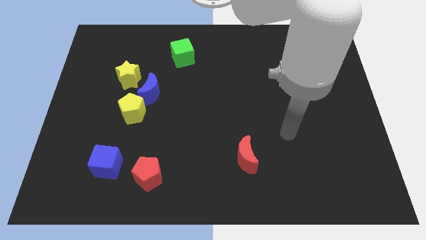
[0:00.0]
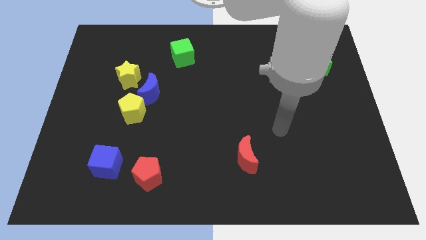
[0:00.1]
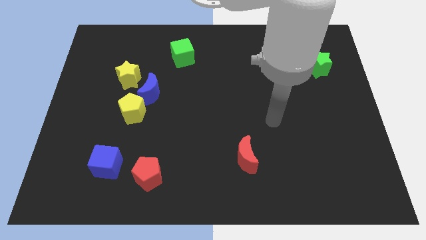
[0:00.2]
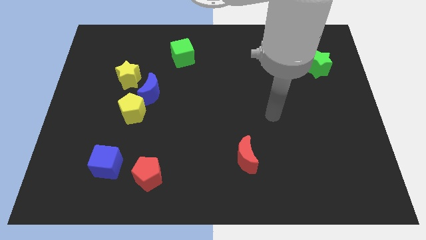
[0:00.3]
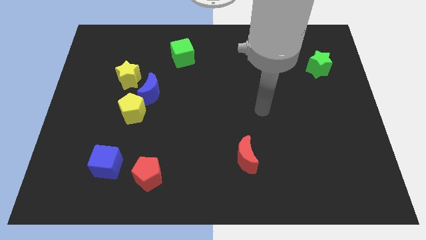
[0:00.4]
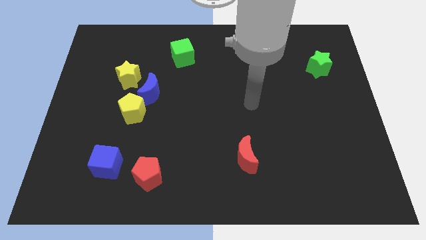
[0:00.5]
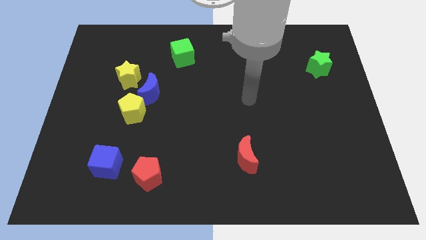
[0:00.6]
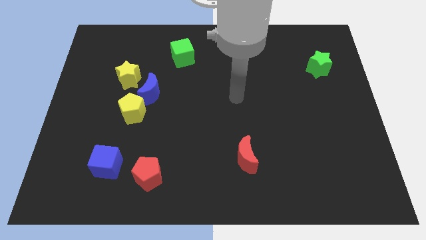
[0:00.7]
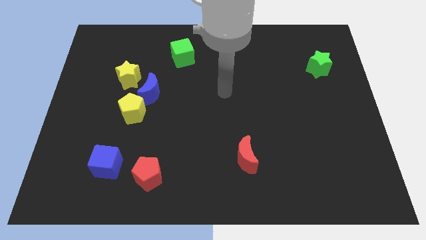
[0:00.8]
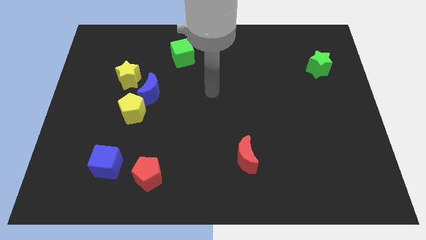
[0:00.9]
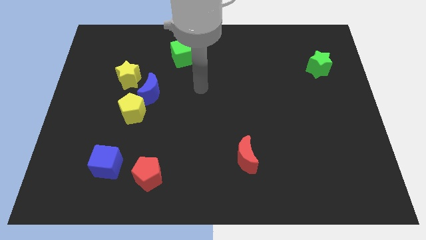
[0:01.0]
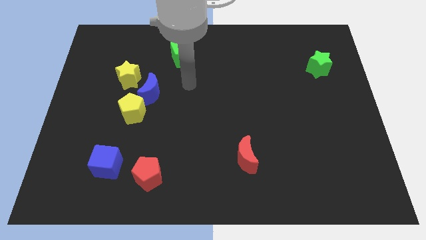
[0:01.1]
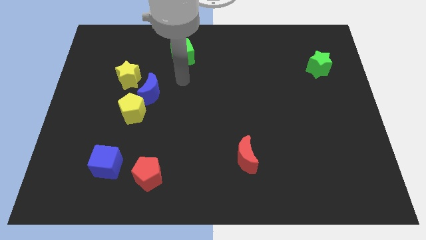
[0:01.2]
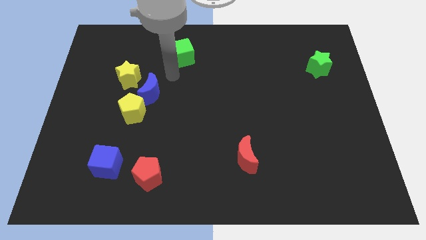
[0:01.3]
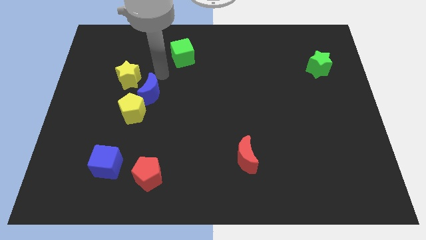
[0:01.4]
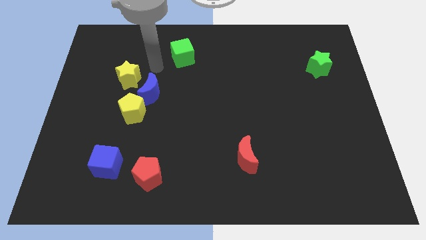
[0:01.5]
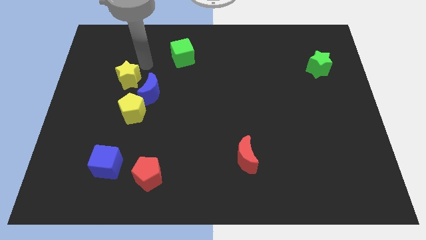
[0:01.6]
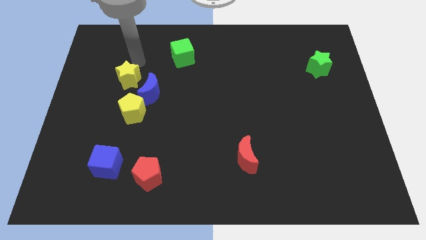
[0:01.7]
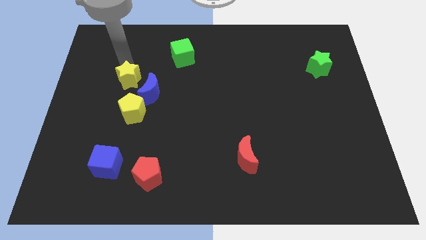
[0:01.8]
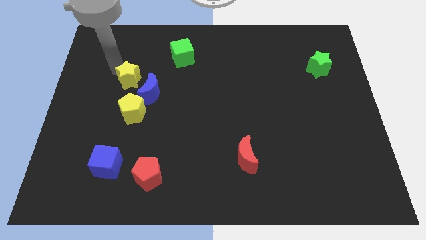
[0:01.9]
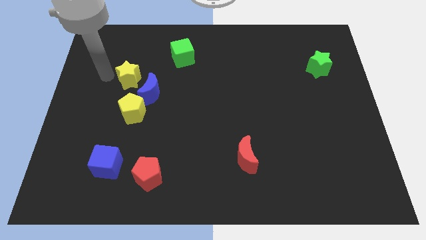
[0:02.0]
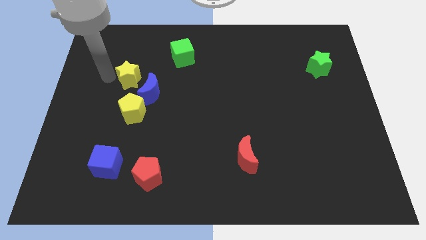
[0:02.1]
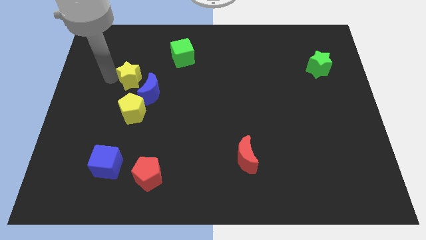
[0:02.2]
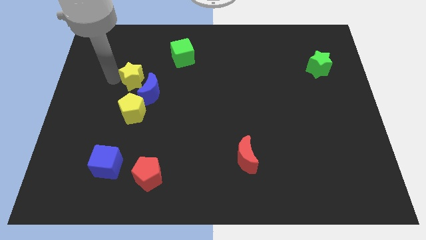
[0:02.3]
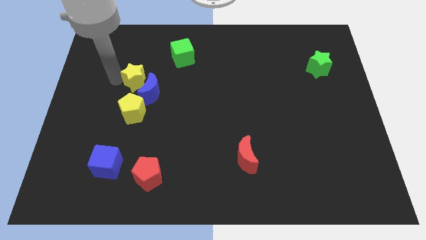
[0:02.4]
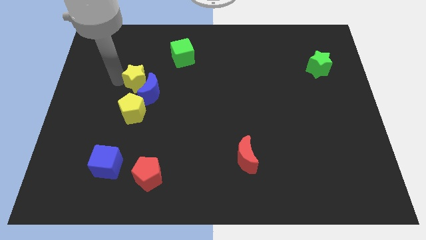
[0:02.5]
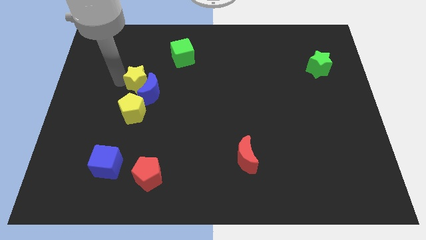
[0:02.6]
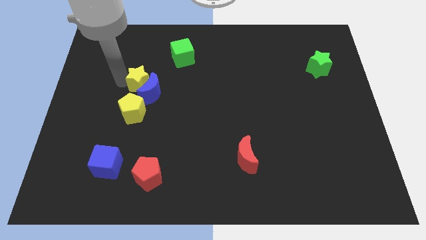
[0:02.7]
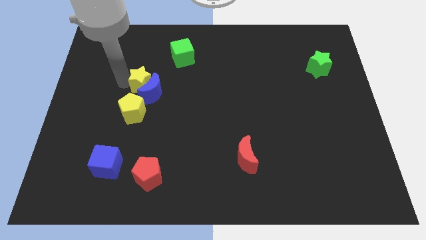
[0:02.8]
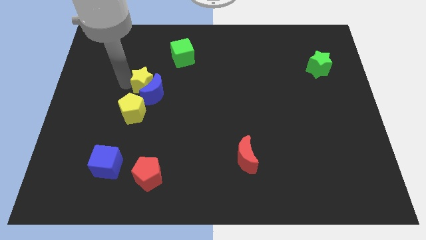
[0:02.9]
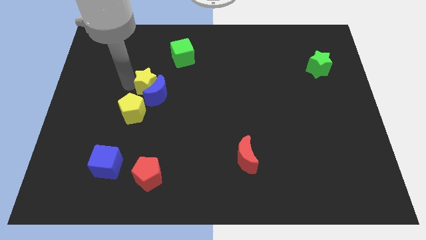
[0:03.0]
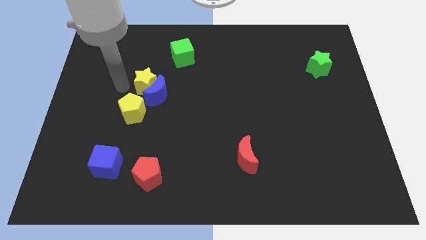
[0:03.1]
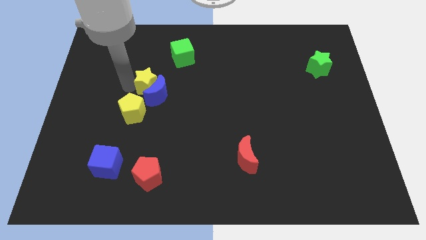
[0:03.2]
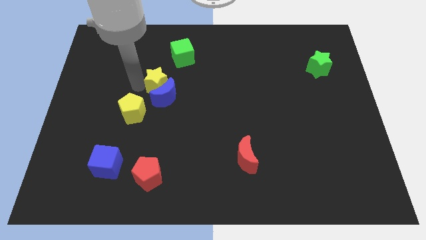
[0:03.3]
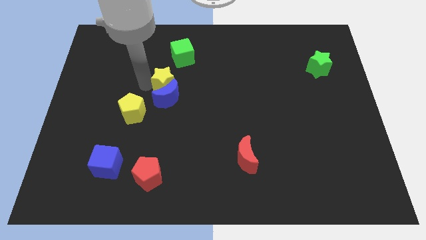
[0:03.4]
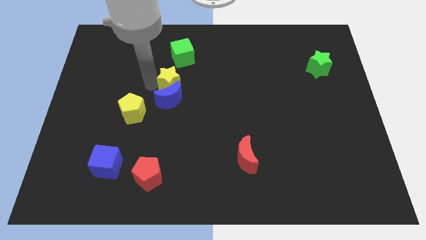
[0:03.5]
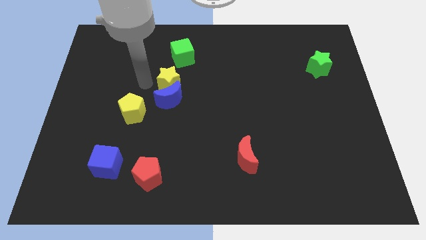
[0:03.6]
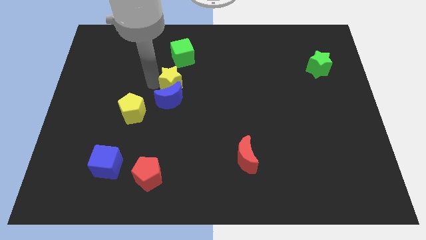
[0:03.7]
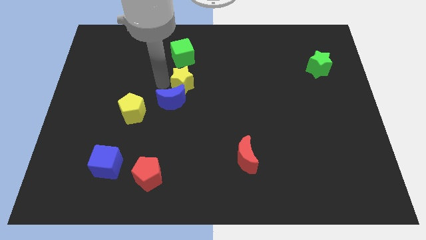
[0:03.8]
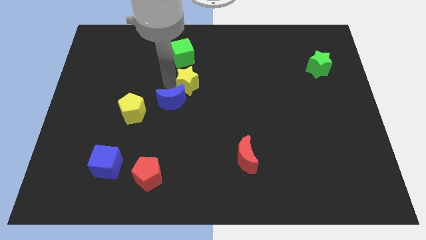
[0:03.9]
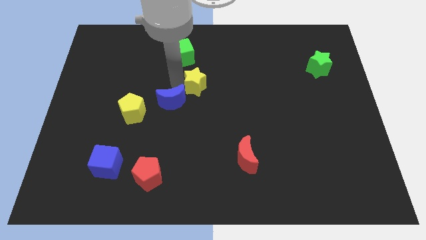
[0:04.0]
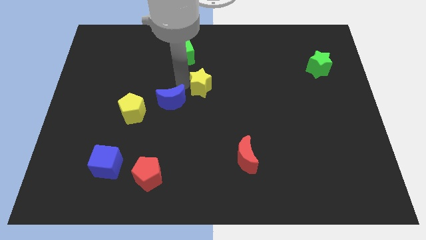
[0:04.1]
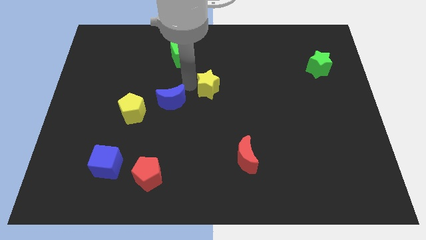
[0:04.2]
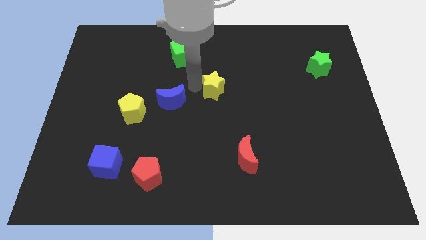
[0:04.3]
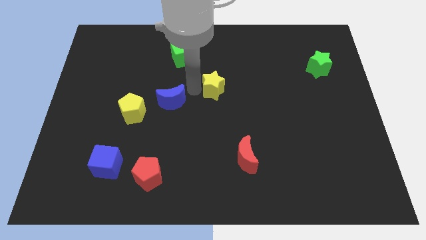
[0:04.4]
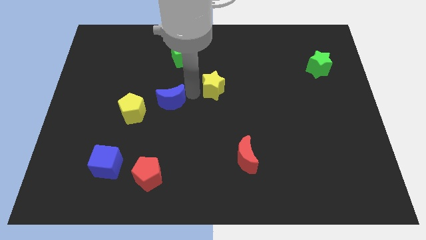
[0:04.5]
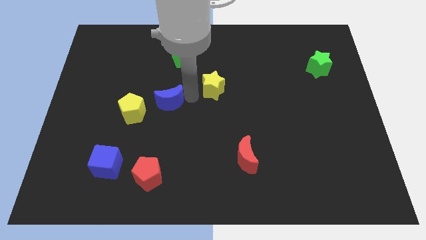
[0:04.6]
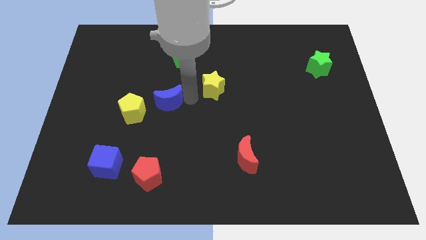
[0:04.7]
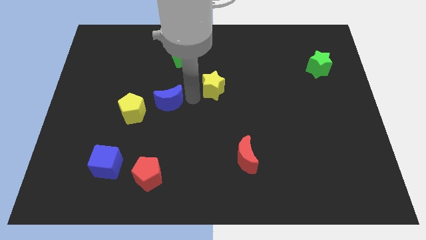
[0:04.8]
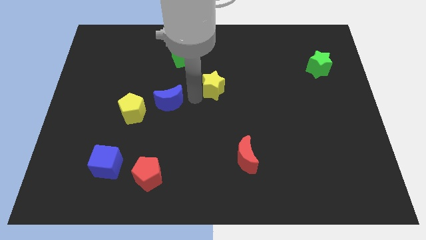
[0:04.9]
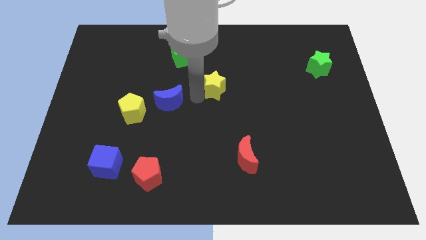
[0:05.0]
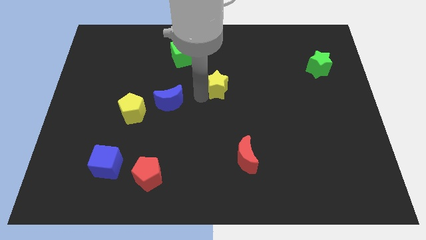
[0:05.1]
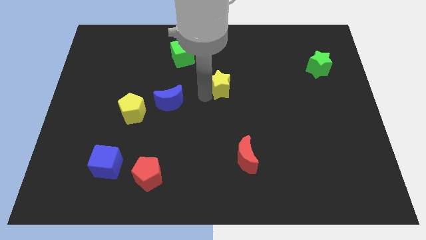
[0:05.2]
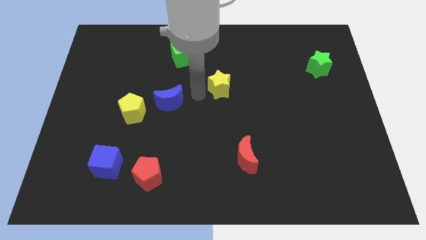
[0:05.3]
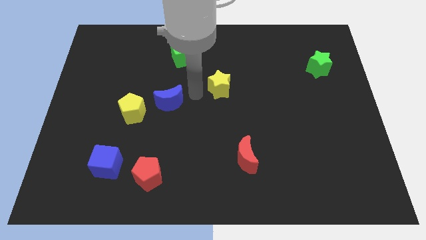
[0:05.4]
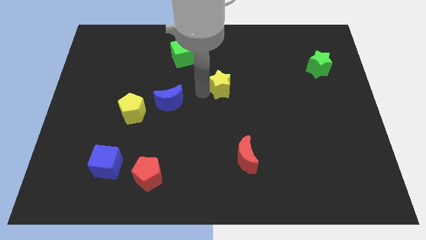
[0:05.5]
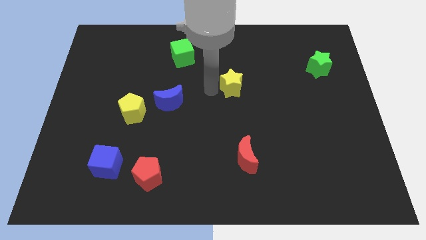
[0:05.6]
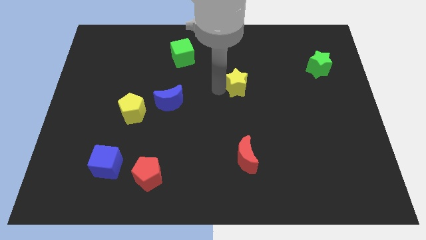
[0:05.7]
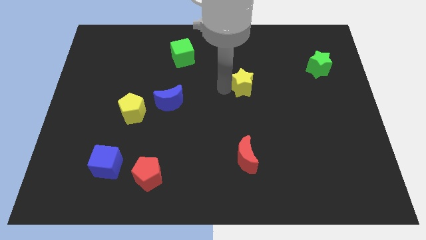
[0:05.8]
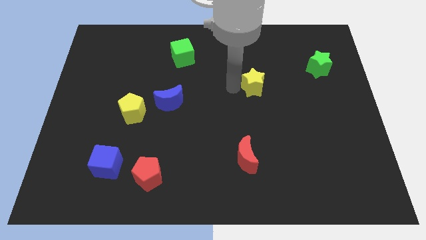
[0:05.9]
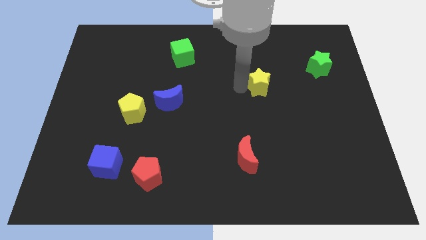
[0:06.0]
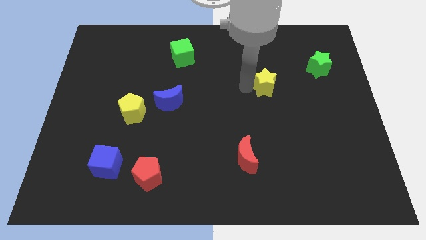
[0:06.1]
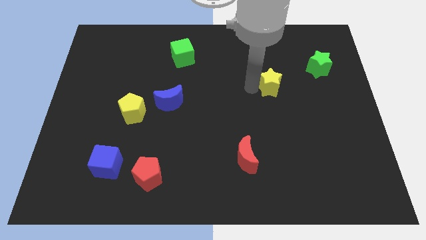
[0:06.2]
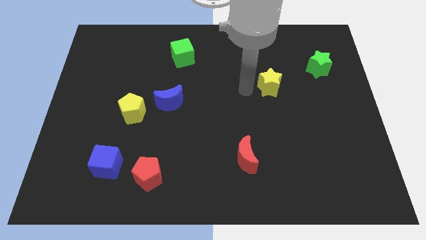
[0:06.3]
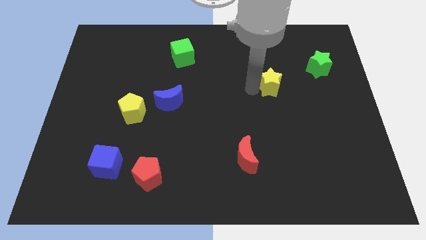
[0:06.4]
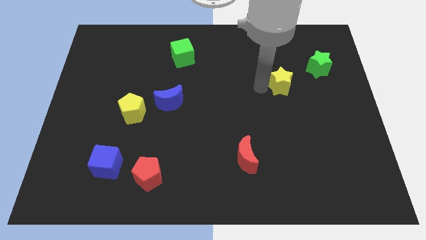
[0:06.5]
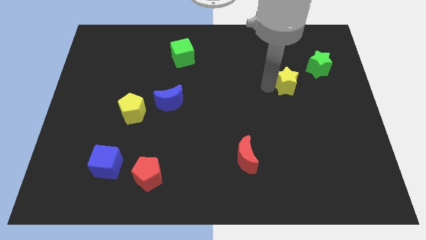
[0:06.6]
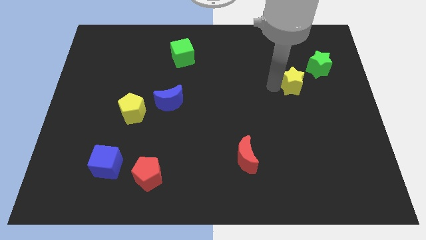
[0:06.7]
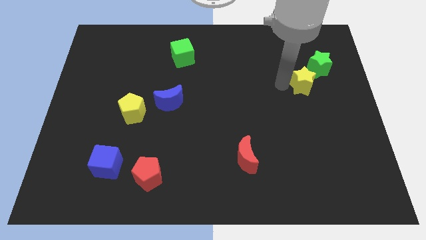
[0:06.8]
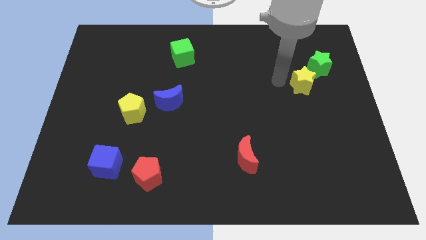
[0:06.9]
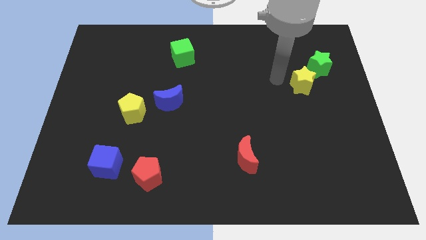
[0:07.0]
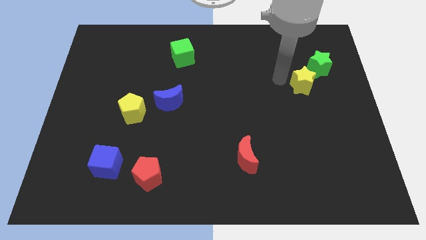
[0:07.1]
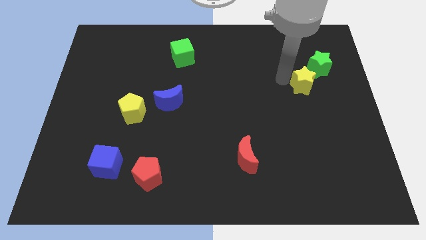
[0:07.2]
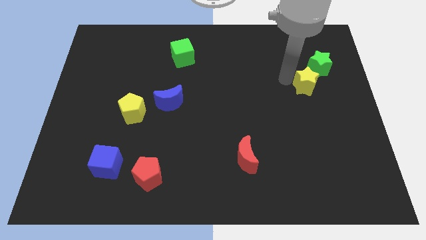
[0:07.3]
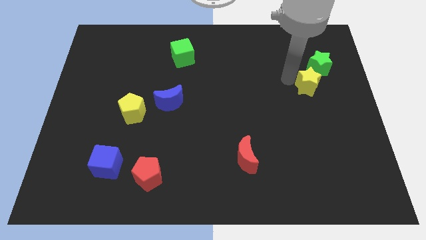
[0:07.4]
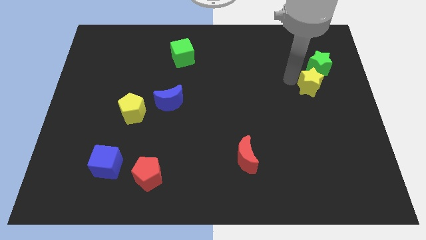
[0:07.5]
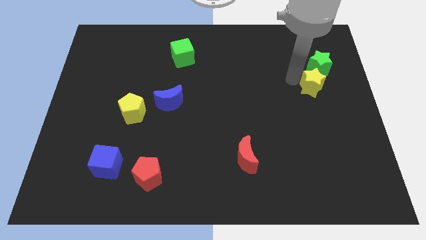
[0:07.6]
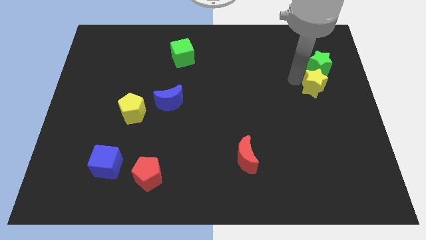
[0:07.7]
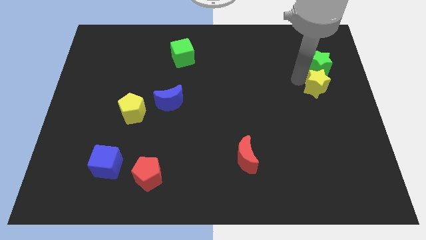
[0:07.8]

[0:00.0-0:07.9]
push the yellow star to the right side of the board
